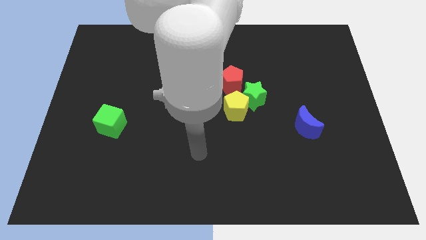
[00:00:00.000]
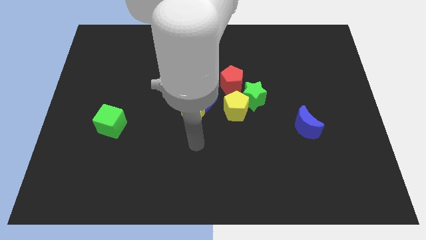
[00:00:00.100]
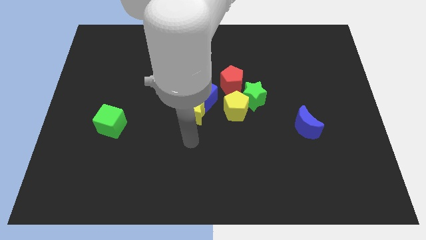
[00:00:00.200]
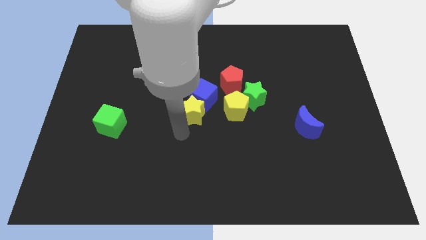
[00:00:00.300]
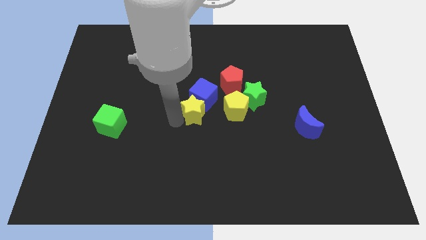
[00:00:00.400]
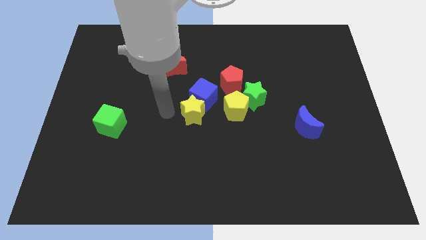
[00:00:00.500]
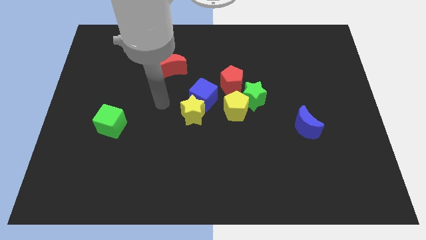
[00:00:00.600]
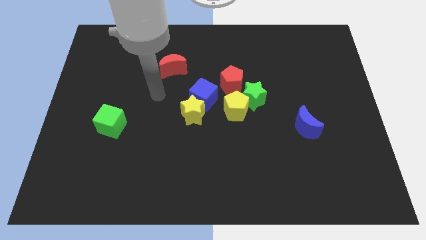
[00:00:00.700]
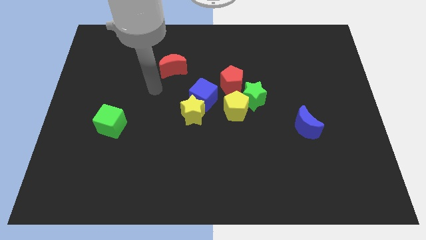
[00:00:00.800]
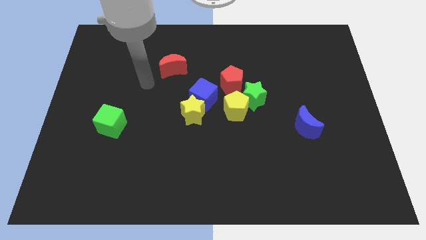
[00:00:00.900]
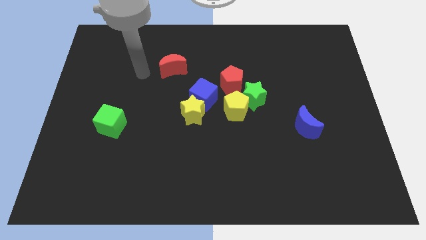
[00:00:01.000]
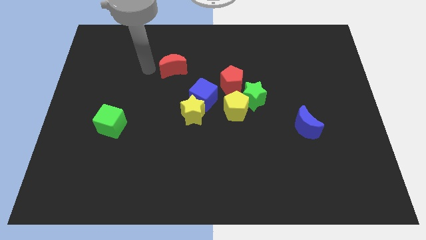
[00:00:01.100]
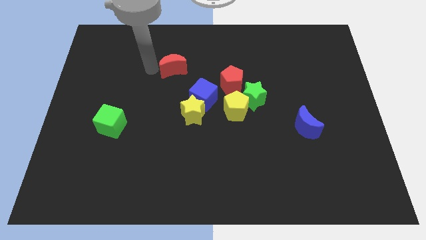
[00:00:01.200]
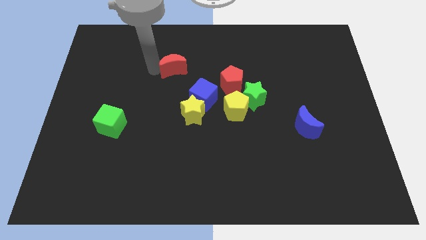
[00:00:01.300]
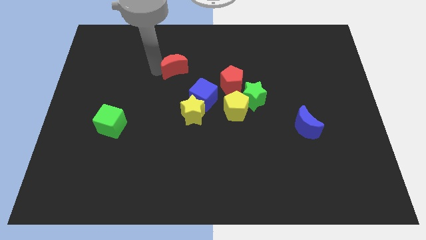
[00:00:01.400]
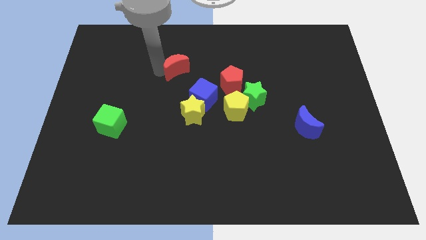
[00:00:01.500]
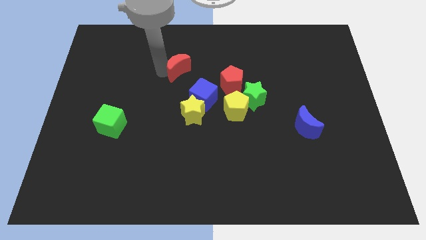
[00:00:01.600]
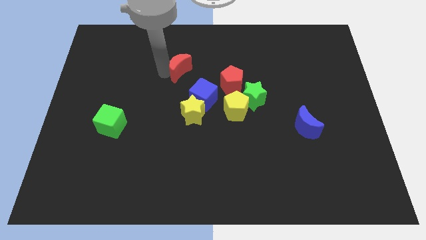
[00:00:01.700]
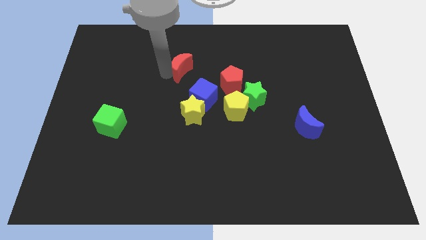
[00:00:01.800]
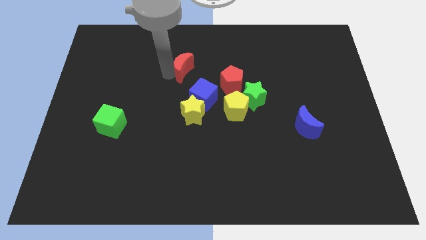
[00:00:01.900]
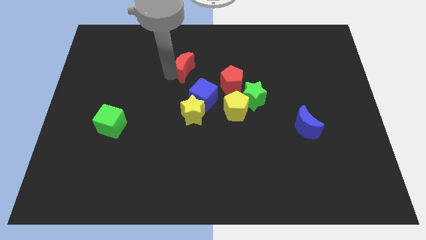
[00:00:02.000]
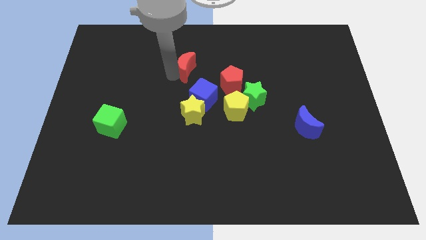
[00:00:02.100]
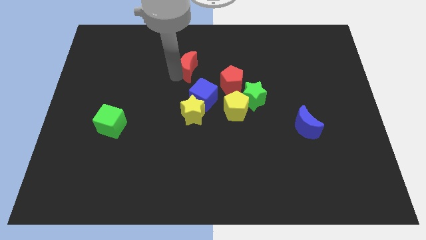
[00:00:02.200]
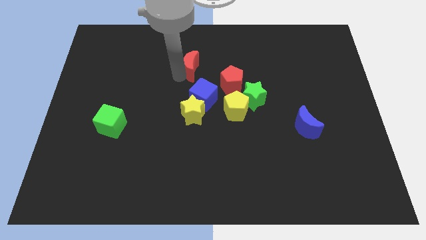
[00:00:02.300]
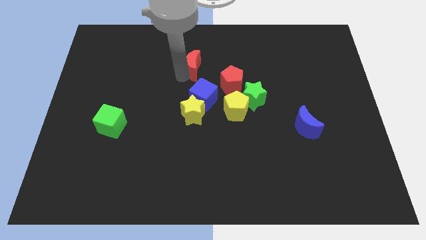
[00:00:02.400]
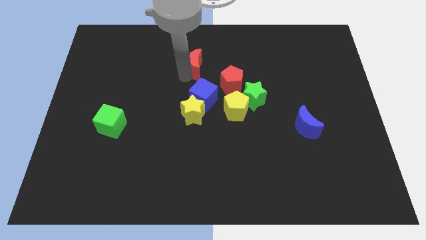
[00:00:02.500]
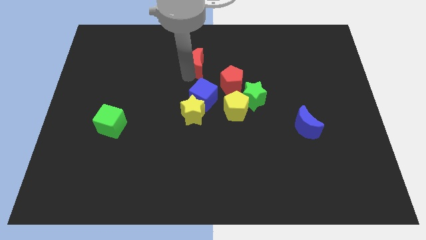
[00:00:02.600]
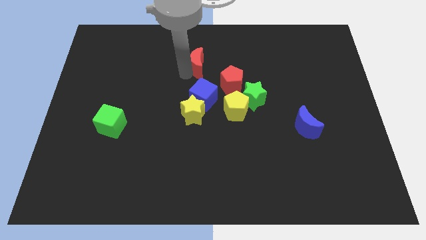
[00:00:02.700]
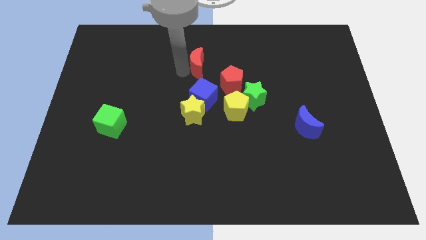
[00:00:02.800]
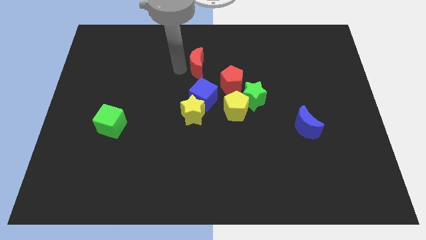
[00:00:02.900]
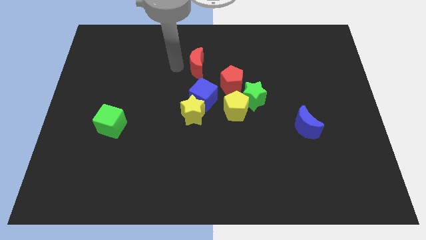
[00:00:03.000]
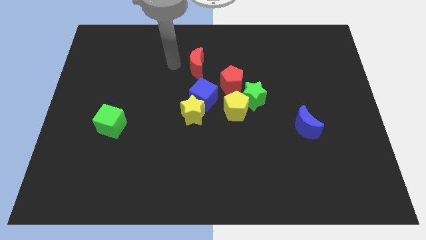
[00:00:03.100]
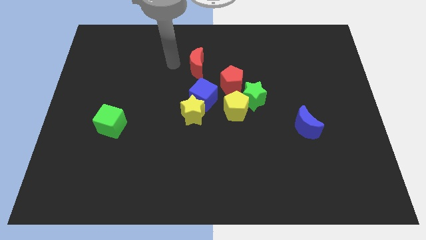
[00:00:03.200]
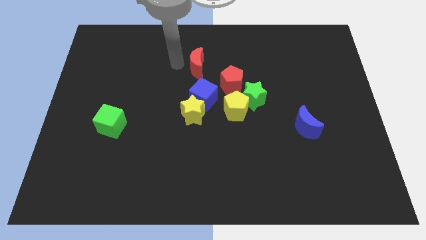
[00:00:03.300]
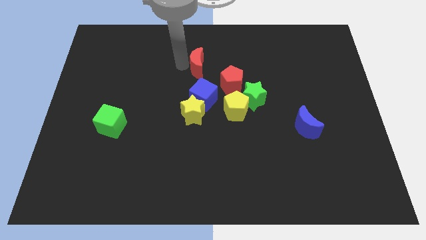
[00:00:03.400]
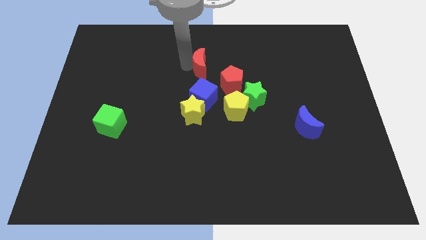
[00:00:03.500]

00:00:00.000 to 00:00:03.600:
slide the red moon somewhat to the right

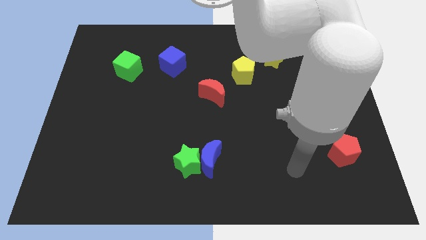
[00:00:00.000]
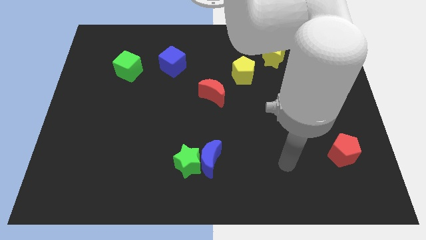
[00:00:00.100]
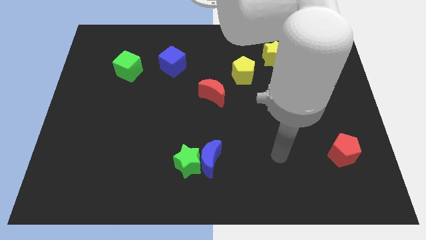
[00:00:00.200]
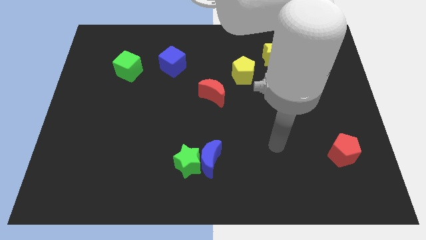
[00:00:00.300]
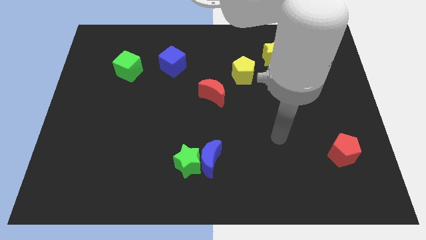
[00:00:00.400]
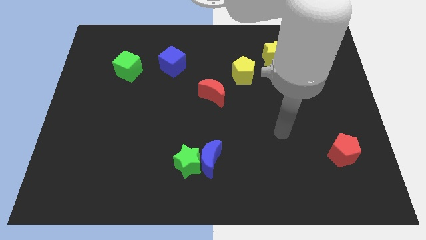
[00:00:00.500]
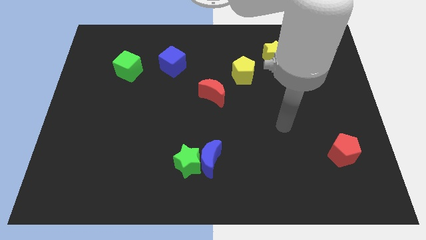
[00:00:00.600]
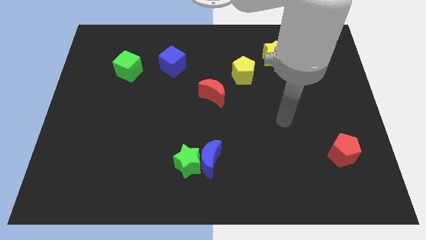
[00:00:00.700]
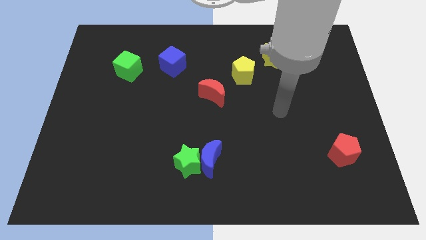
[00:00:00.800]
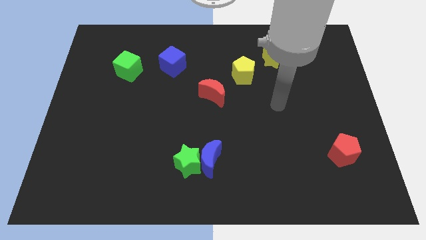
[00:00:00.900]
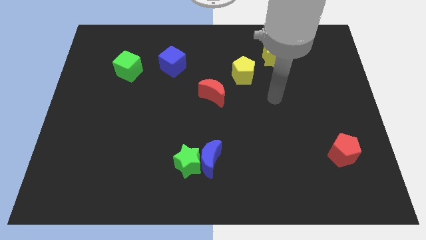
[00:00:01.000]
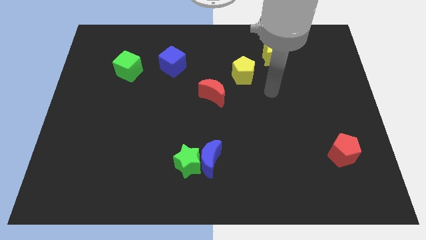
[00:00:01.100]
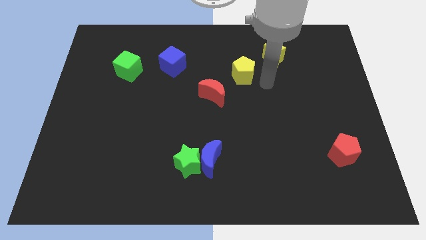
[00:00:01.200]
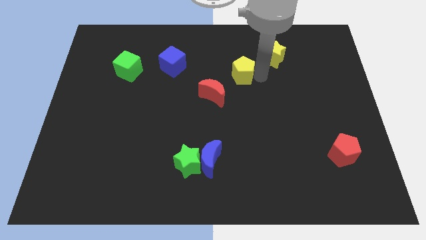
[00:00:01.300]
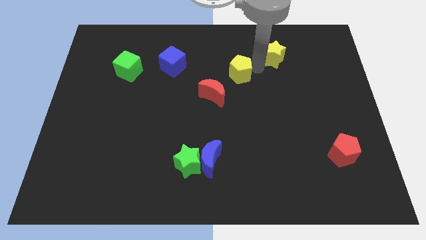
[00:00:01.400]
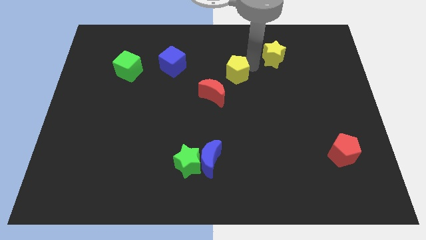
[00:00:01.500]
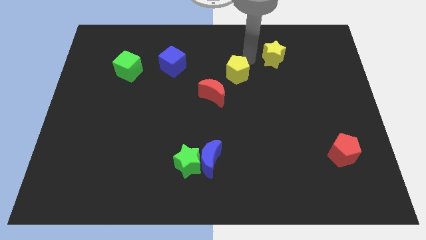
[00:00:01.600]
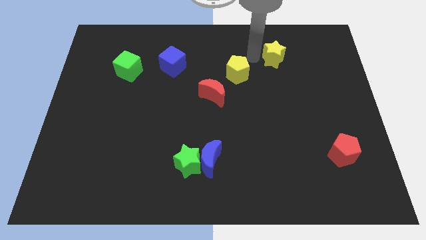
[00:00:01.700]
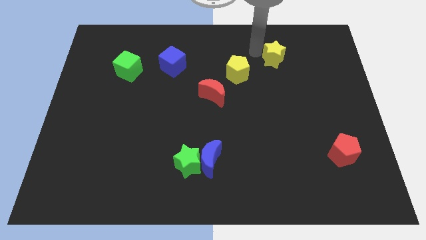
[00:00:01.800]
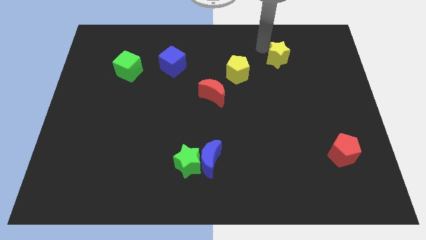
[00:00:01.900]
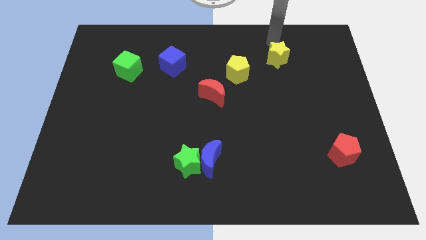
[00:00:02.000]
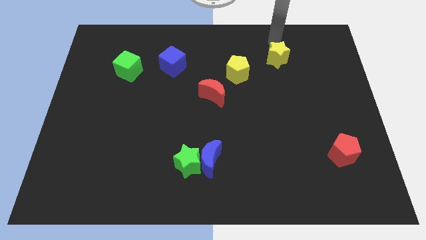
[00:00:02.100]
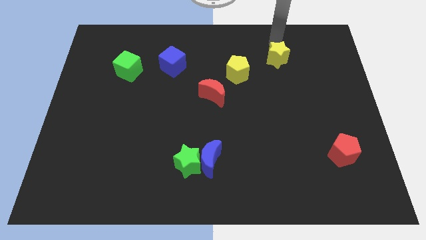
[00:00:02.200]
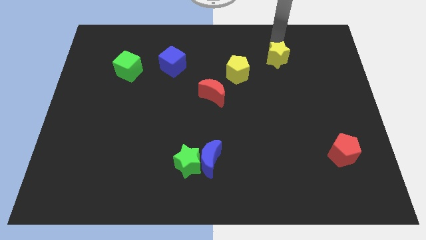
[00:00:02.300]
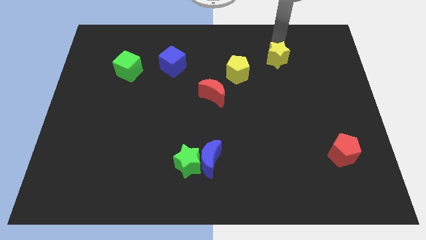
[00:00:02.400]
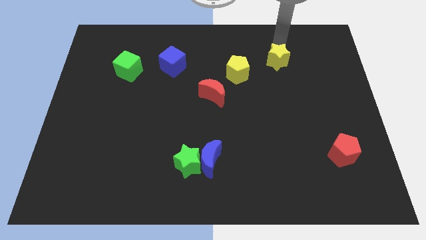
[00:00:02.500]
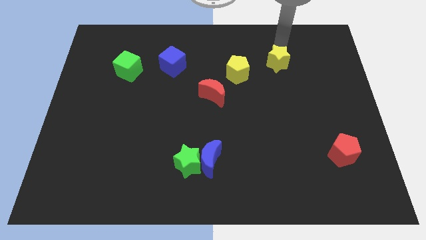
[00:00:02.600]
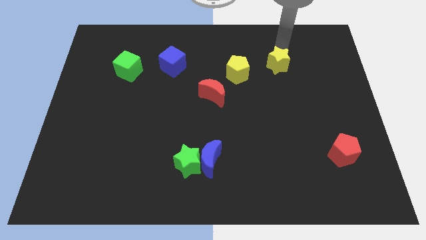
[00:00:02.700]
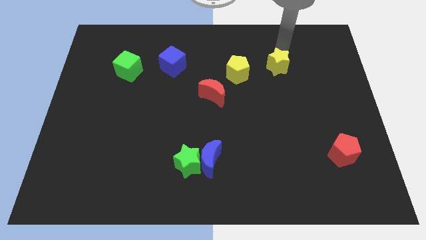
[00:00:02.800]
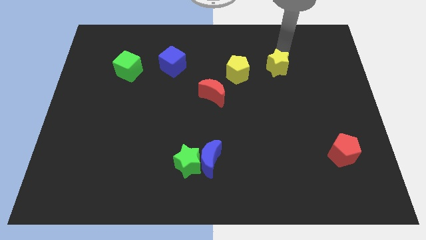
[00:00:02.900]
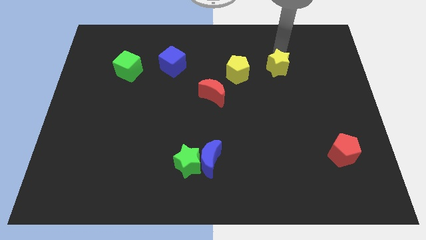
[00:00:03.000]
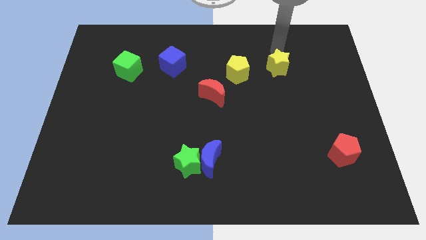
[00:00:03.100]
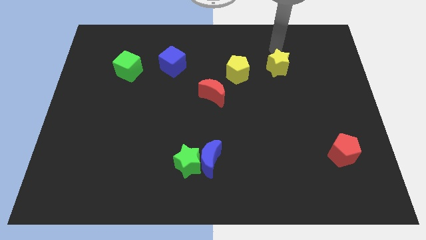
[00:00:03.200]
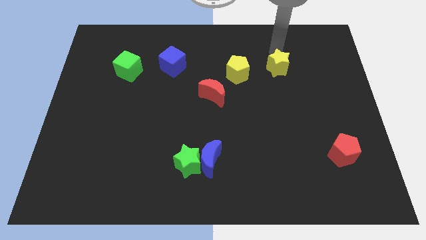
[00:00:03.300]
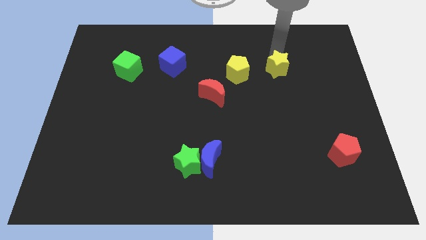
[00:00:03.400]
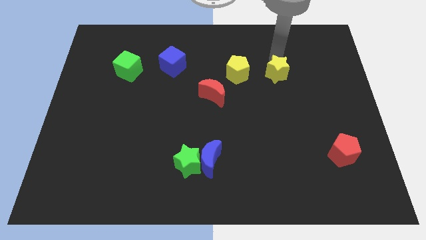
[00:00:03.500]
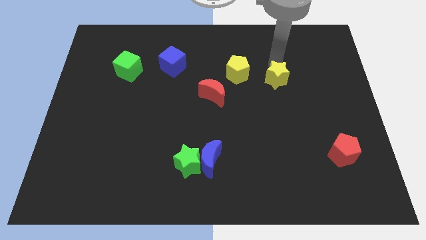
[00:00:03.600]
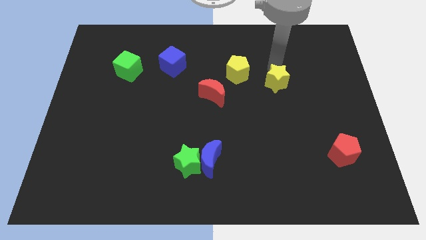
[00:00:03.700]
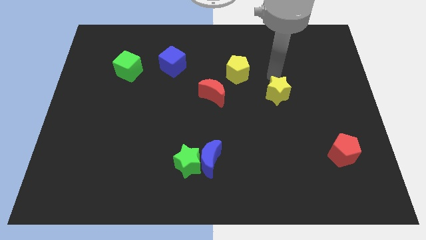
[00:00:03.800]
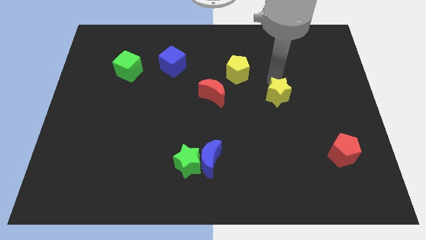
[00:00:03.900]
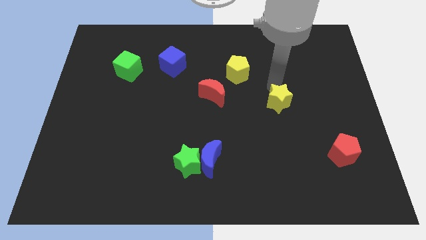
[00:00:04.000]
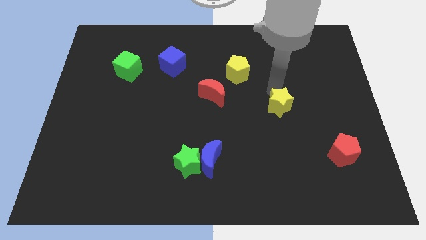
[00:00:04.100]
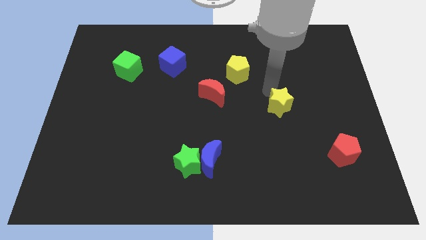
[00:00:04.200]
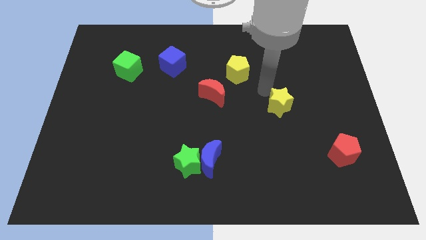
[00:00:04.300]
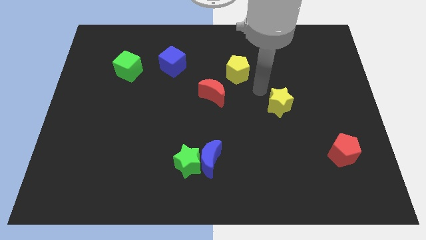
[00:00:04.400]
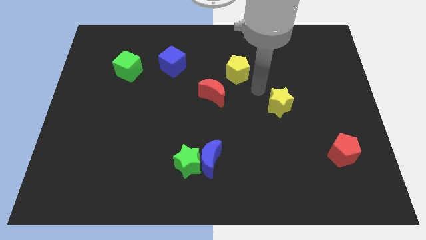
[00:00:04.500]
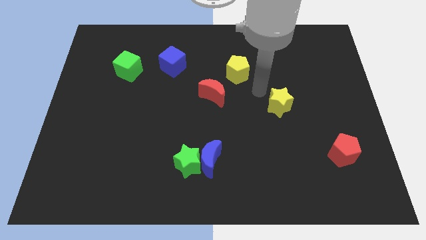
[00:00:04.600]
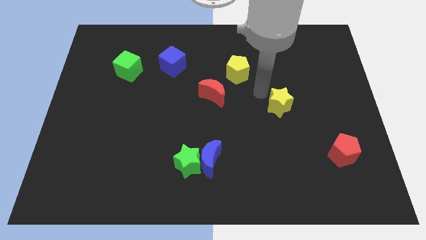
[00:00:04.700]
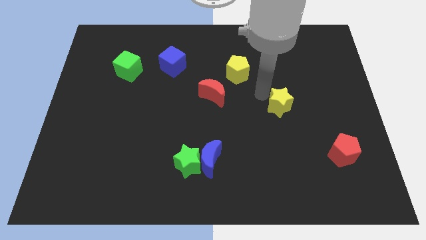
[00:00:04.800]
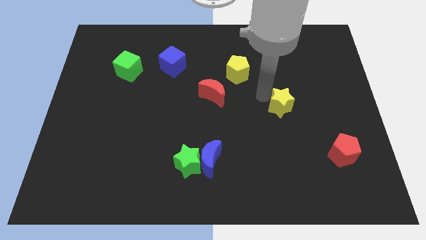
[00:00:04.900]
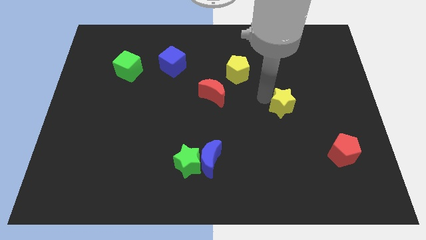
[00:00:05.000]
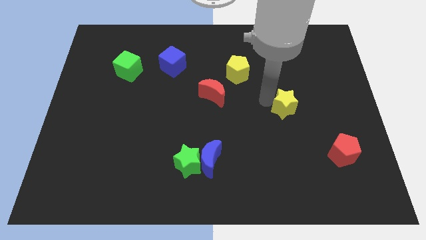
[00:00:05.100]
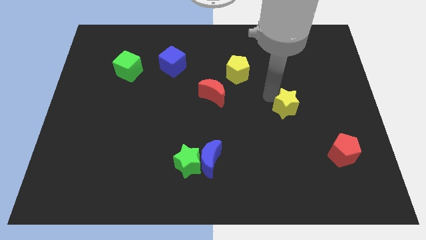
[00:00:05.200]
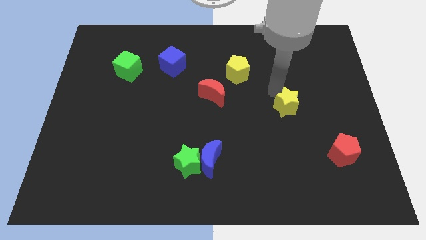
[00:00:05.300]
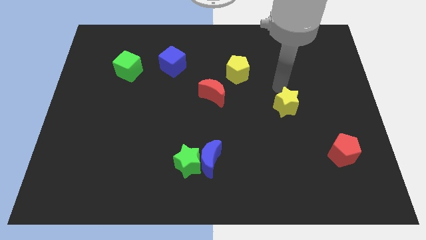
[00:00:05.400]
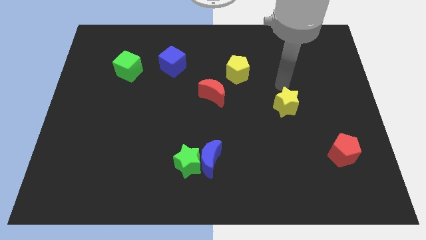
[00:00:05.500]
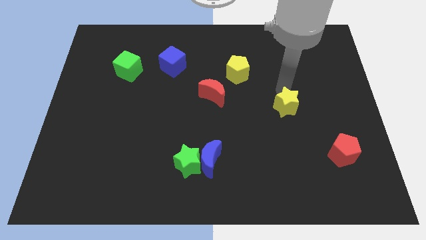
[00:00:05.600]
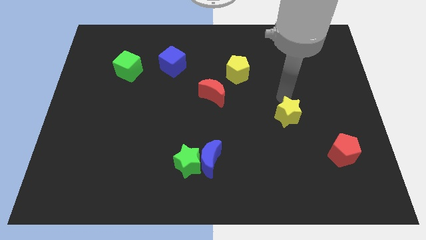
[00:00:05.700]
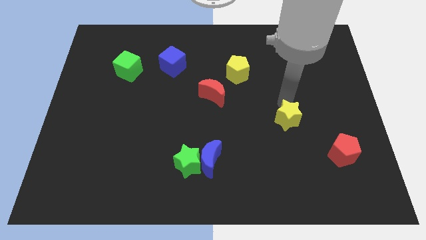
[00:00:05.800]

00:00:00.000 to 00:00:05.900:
move the yellow star down
